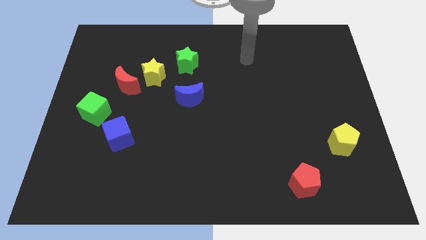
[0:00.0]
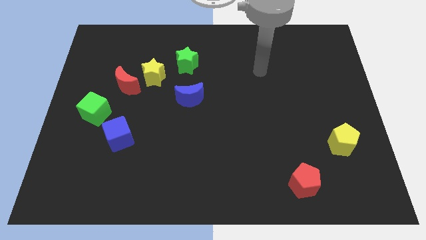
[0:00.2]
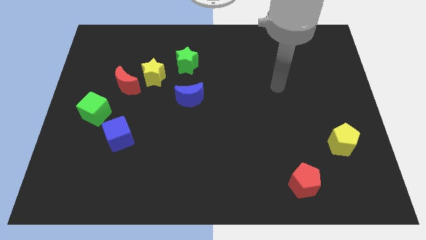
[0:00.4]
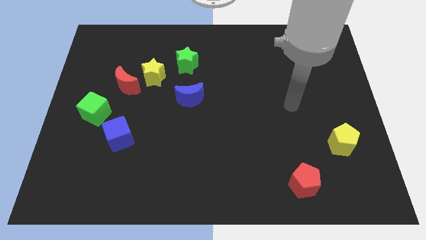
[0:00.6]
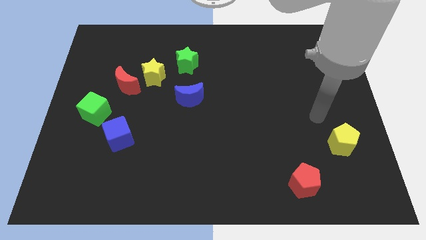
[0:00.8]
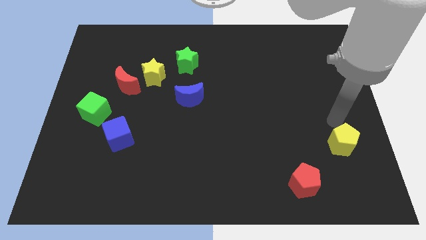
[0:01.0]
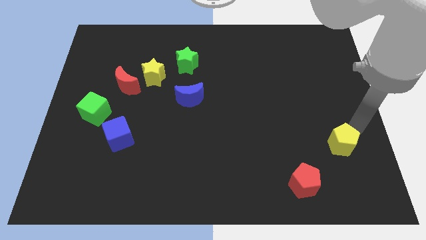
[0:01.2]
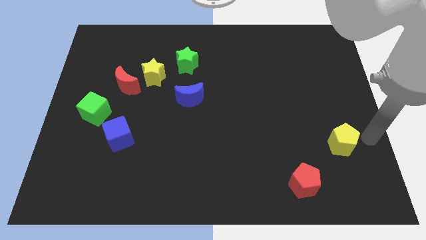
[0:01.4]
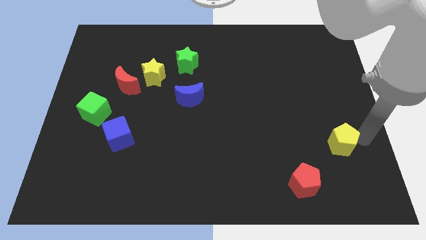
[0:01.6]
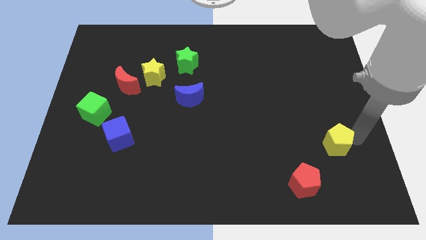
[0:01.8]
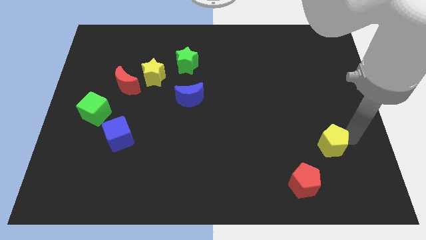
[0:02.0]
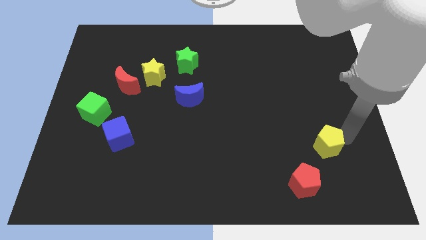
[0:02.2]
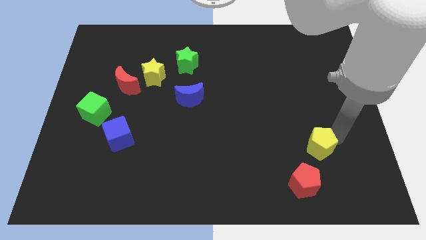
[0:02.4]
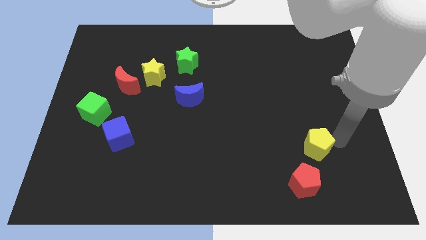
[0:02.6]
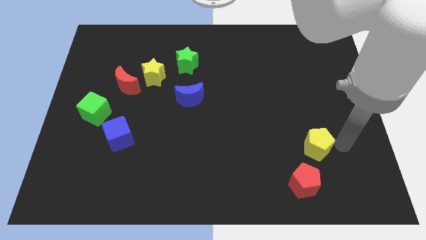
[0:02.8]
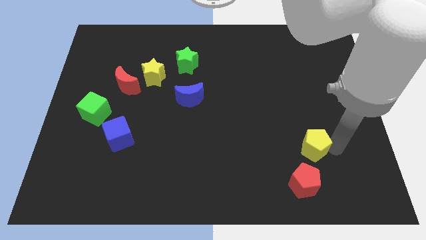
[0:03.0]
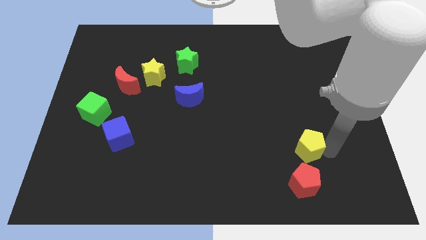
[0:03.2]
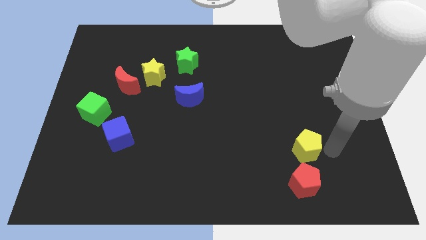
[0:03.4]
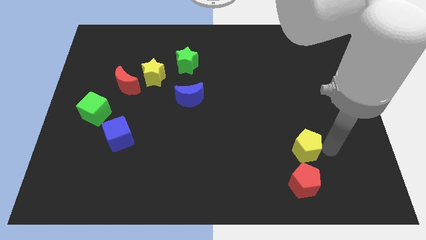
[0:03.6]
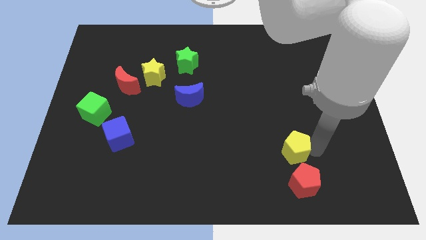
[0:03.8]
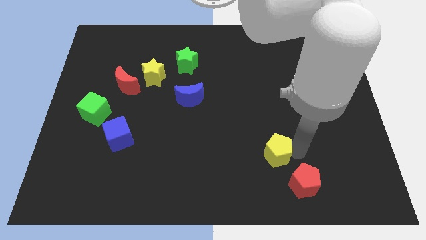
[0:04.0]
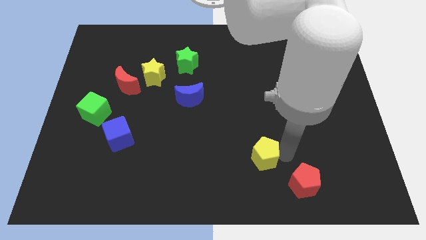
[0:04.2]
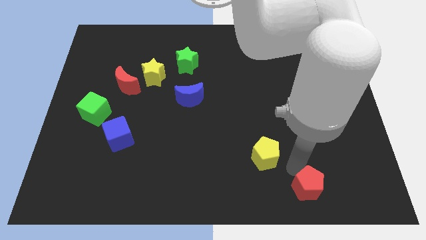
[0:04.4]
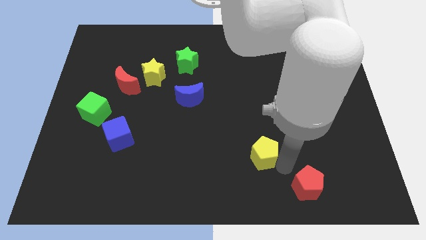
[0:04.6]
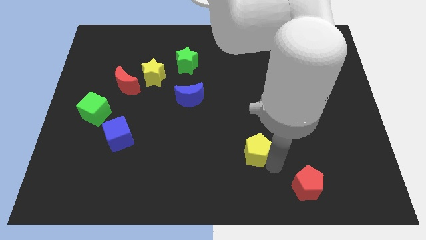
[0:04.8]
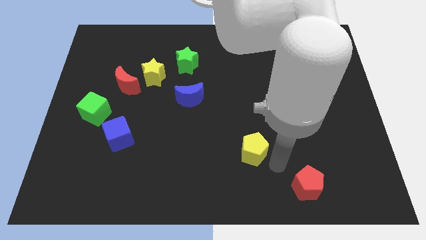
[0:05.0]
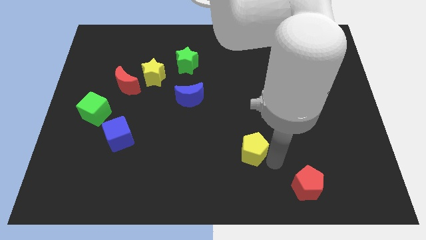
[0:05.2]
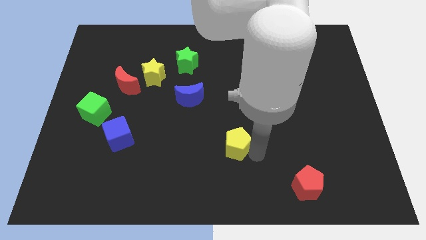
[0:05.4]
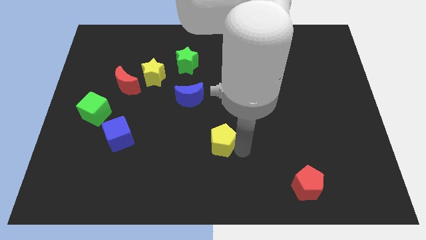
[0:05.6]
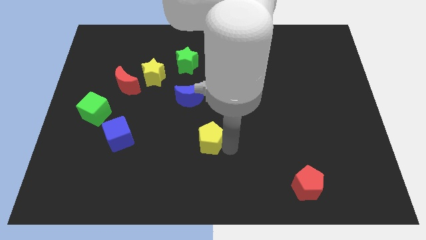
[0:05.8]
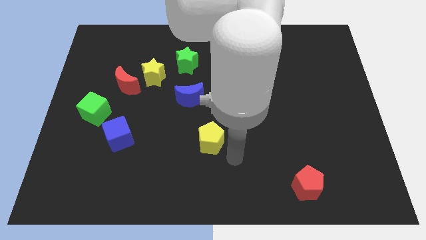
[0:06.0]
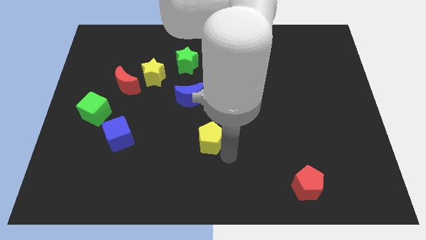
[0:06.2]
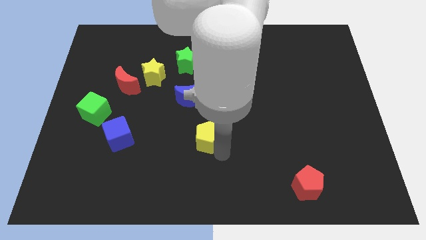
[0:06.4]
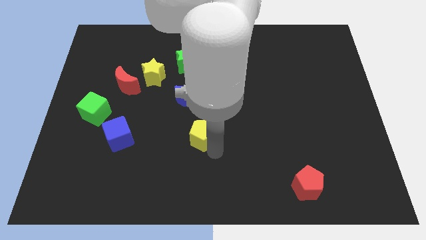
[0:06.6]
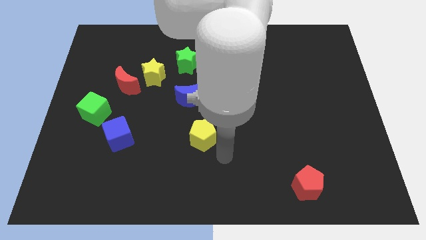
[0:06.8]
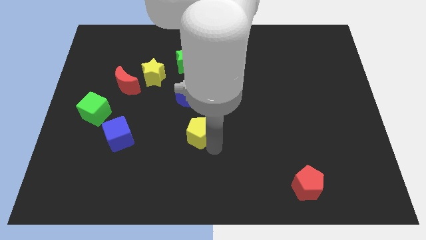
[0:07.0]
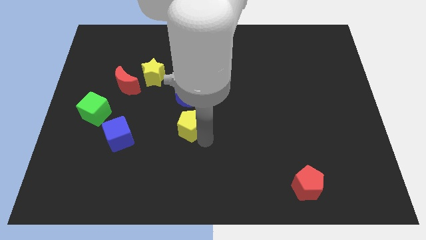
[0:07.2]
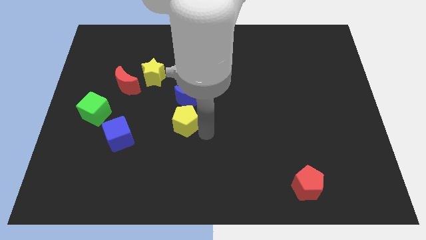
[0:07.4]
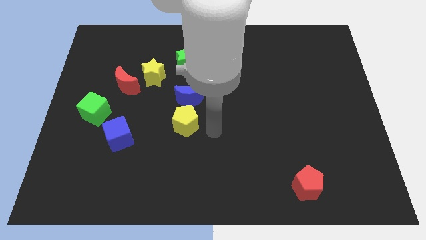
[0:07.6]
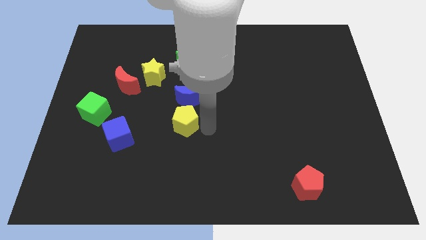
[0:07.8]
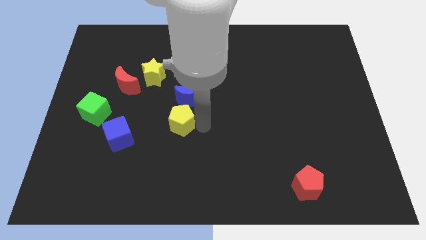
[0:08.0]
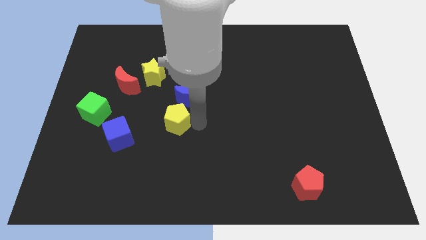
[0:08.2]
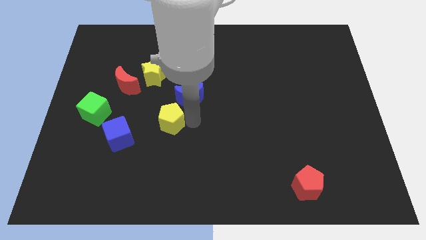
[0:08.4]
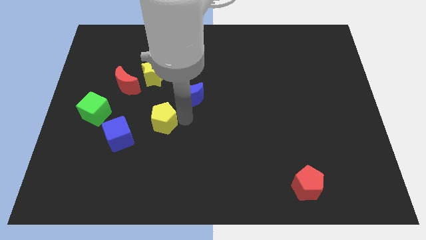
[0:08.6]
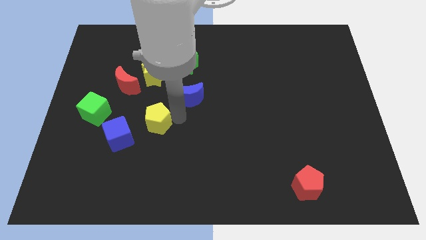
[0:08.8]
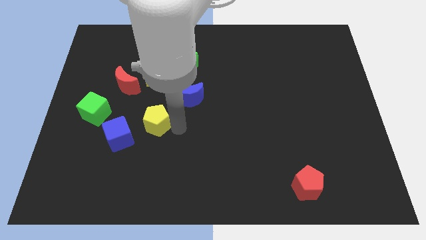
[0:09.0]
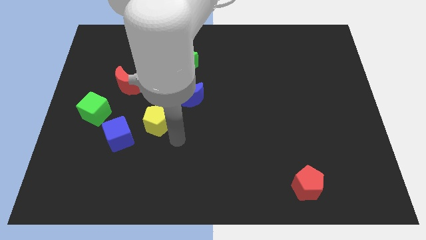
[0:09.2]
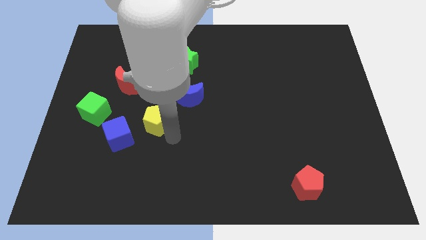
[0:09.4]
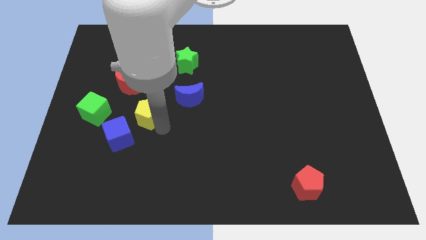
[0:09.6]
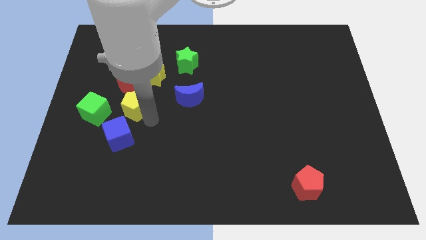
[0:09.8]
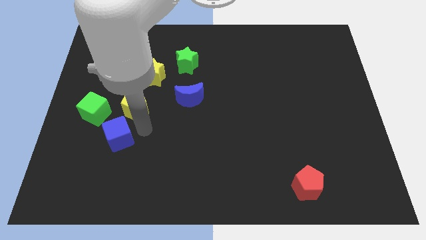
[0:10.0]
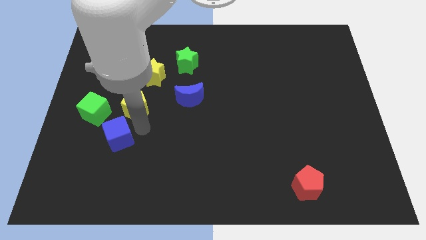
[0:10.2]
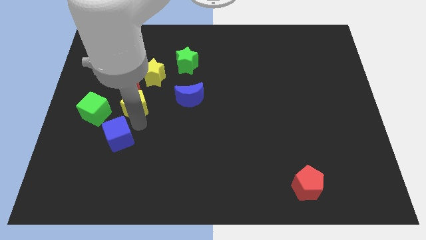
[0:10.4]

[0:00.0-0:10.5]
move the yellow pentagon to the bottom left of the yellow star

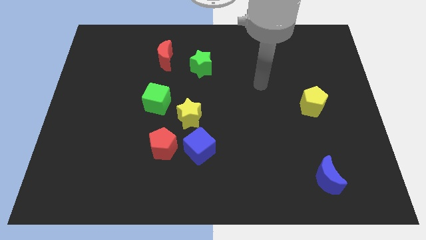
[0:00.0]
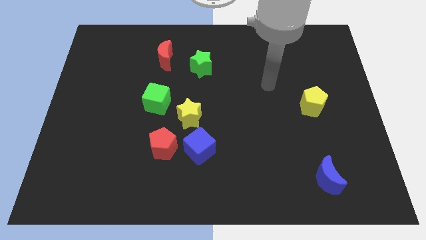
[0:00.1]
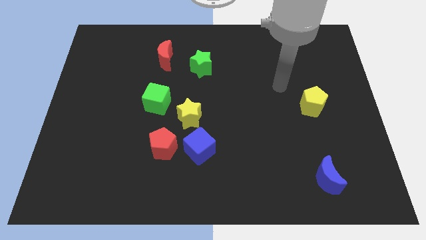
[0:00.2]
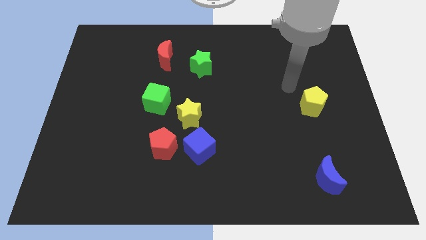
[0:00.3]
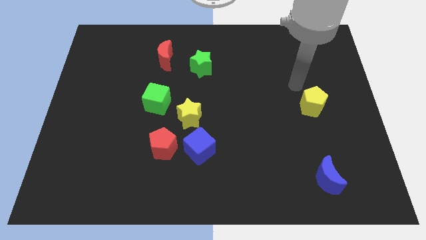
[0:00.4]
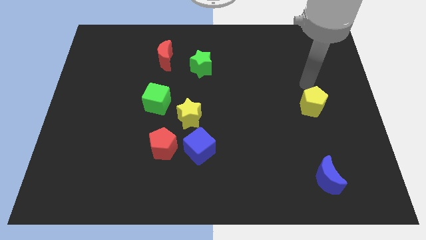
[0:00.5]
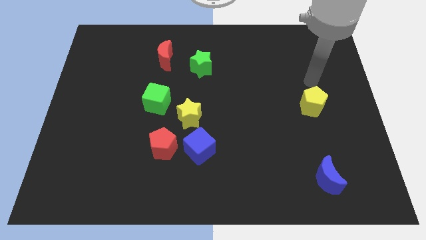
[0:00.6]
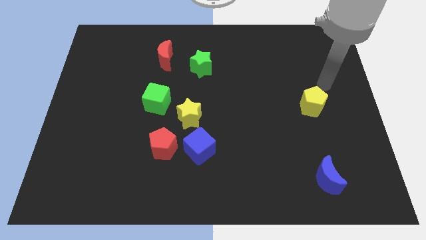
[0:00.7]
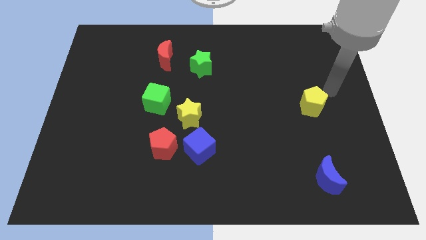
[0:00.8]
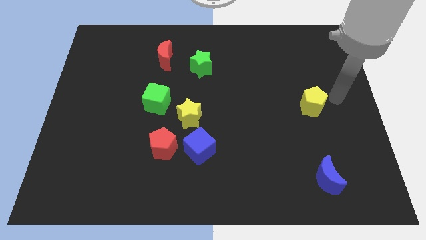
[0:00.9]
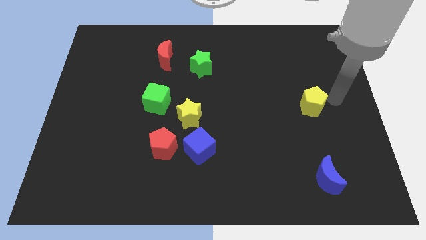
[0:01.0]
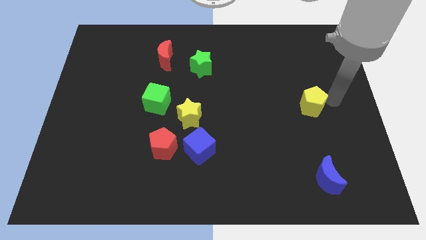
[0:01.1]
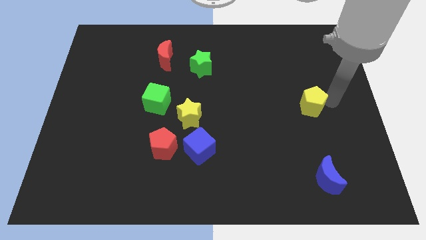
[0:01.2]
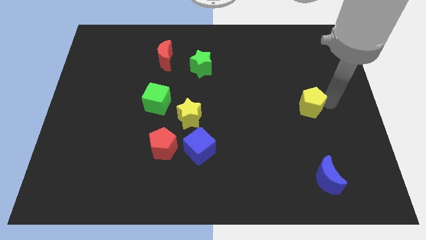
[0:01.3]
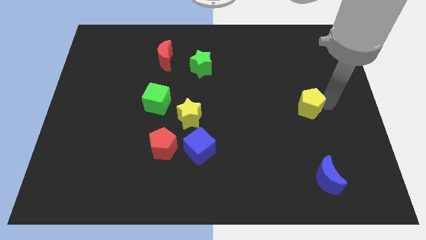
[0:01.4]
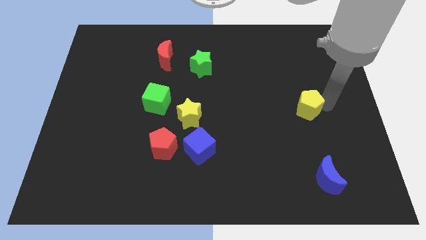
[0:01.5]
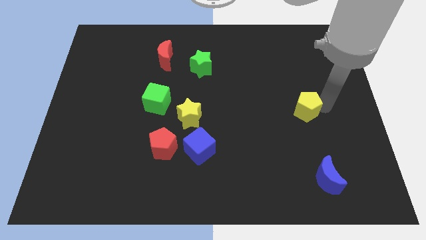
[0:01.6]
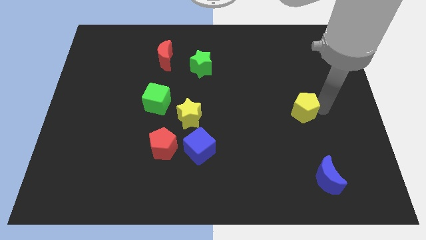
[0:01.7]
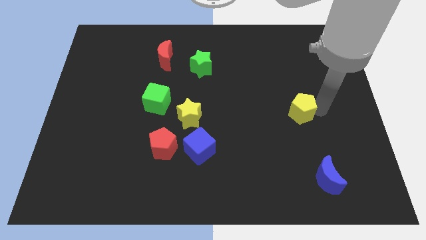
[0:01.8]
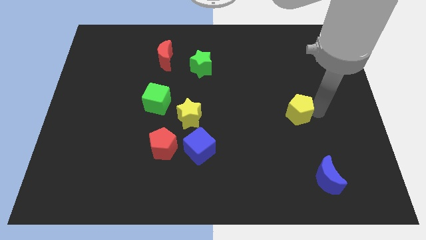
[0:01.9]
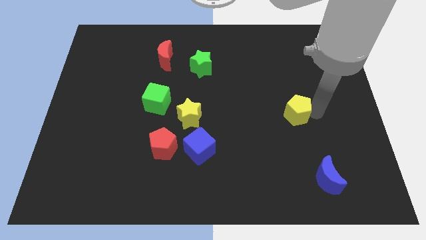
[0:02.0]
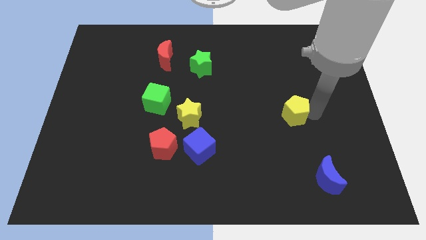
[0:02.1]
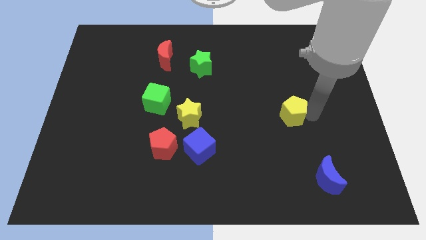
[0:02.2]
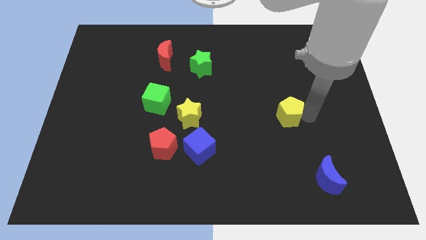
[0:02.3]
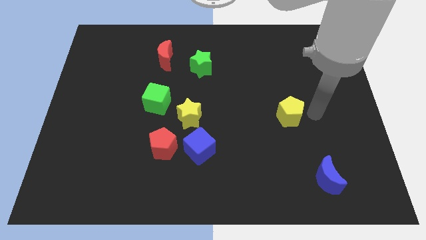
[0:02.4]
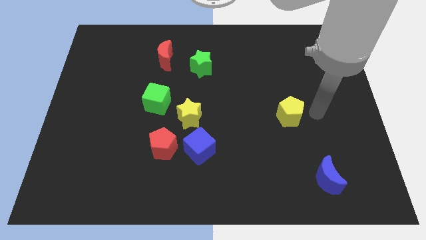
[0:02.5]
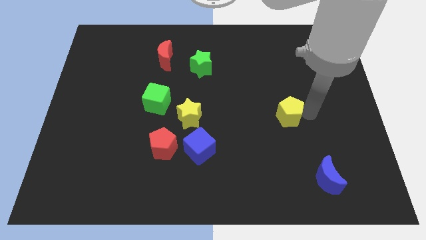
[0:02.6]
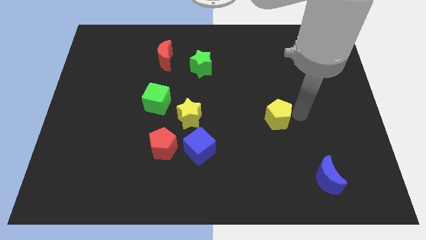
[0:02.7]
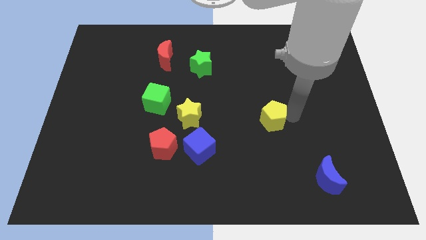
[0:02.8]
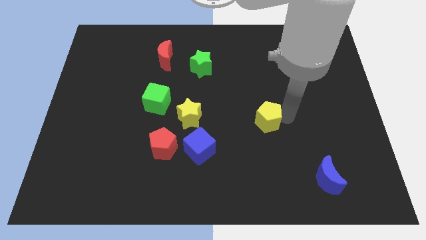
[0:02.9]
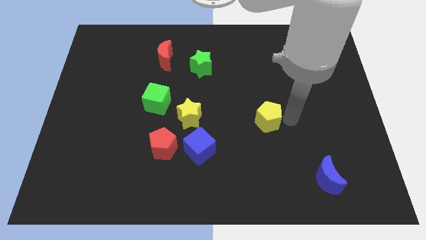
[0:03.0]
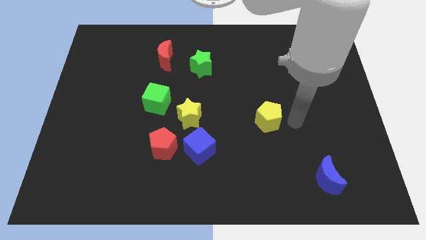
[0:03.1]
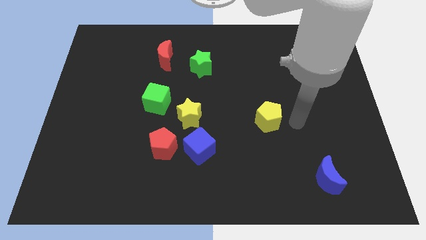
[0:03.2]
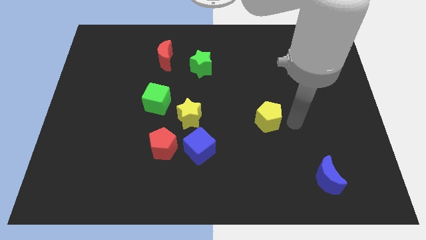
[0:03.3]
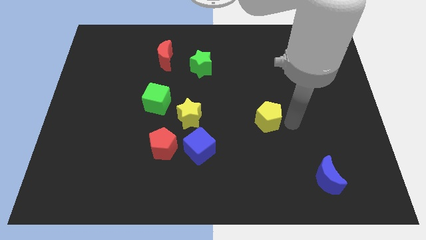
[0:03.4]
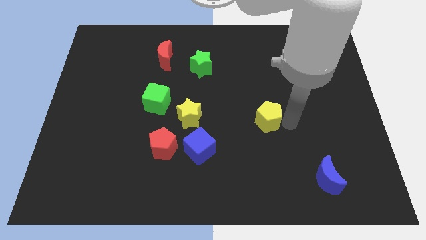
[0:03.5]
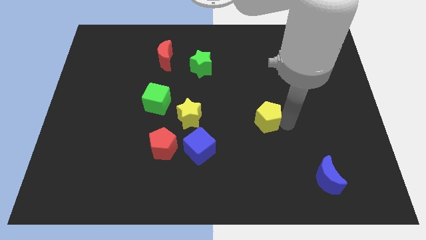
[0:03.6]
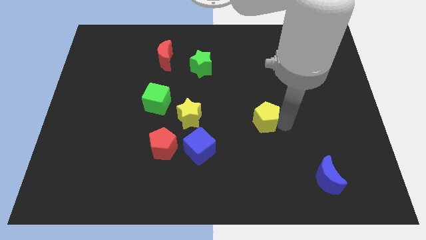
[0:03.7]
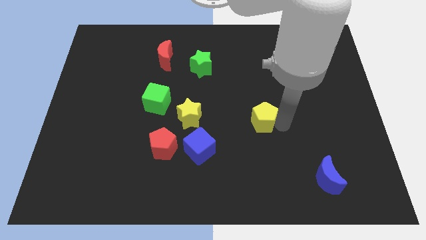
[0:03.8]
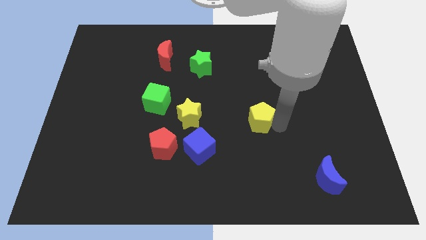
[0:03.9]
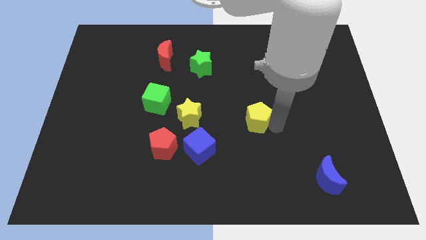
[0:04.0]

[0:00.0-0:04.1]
move the yellow pentagon just right of the yellow star
